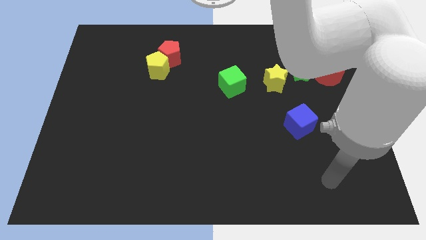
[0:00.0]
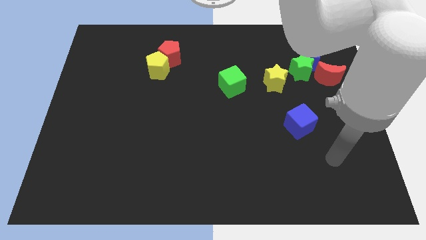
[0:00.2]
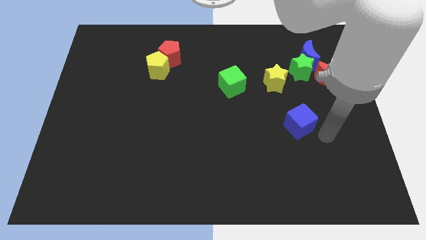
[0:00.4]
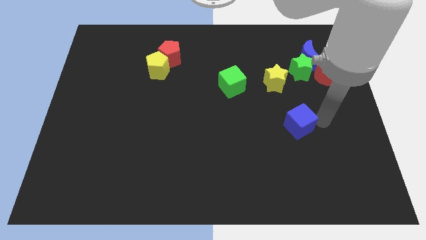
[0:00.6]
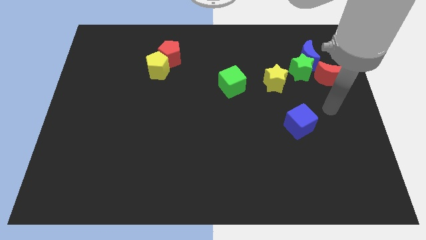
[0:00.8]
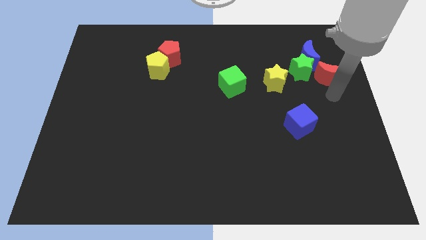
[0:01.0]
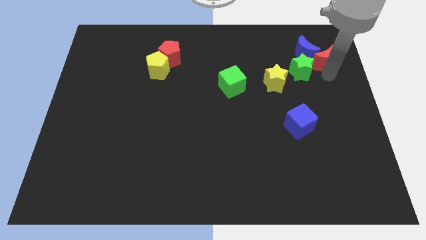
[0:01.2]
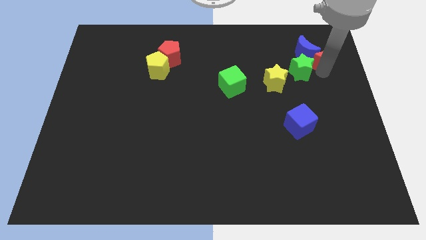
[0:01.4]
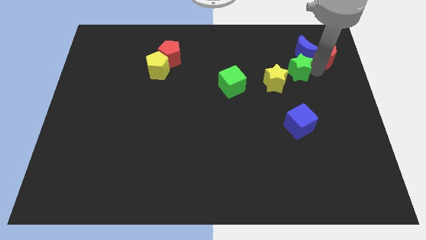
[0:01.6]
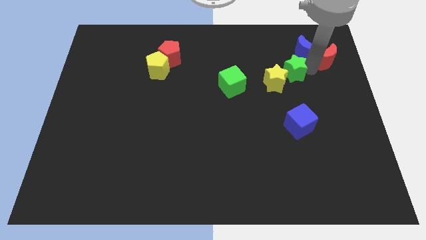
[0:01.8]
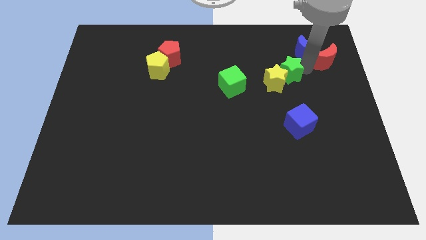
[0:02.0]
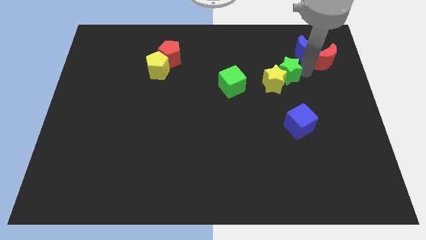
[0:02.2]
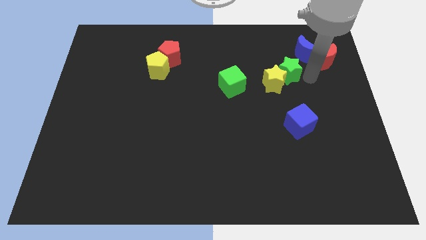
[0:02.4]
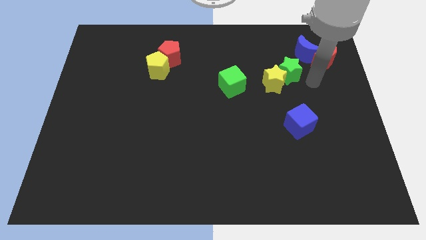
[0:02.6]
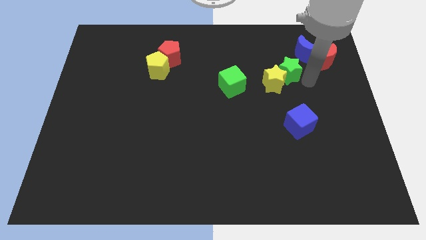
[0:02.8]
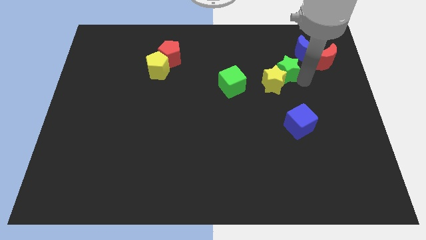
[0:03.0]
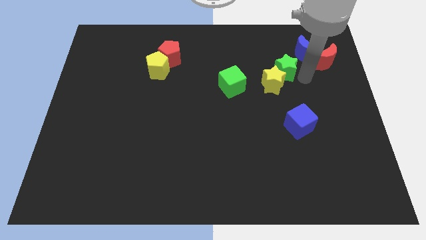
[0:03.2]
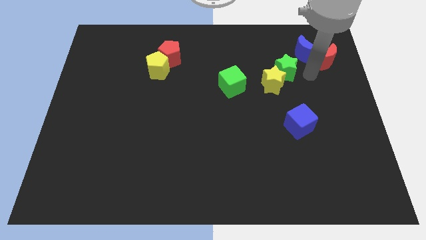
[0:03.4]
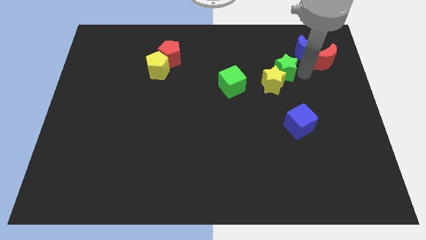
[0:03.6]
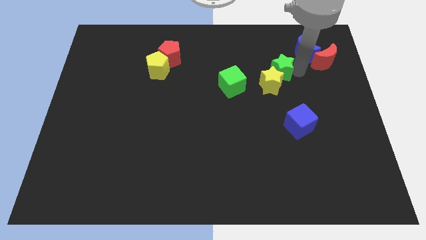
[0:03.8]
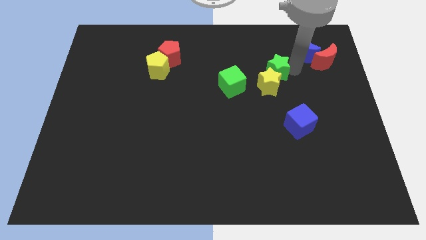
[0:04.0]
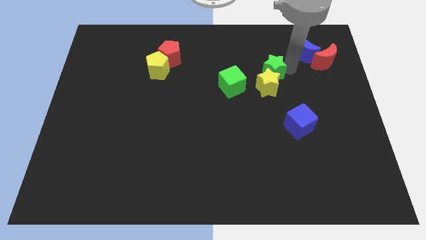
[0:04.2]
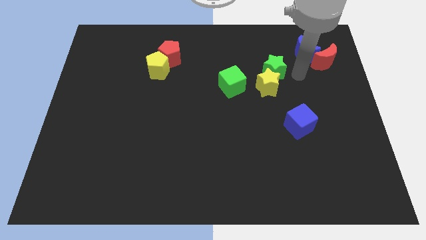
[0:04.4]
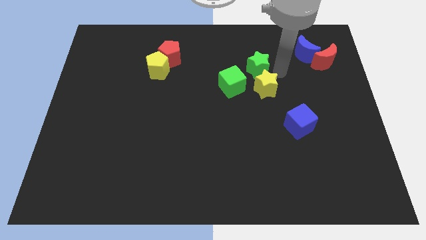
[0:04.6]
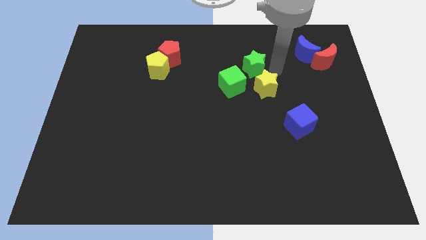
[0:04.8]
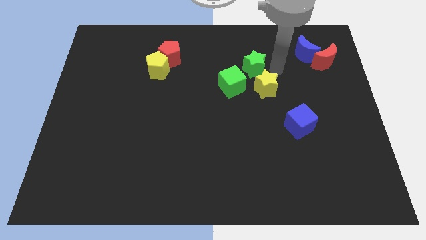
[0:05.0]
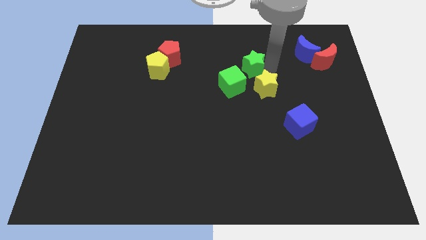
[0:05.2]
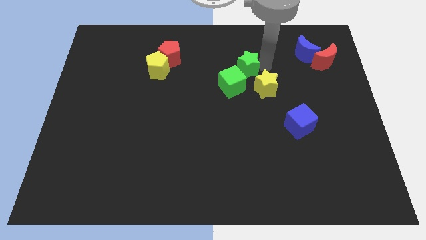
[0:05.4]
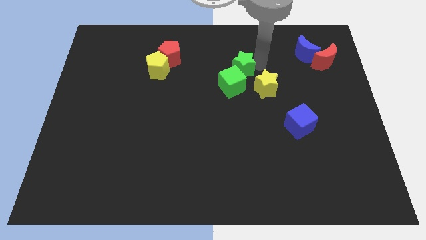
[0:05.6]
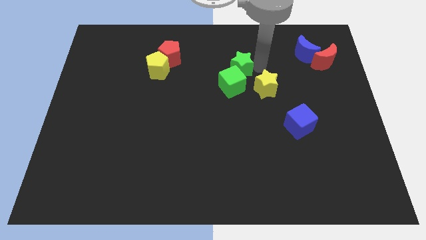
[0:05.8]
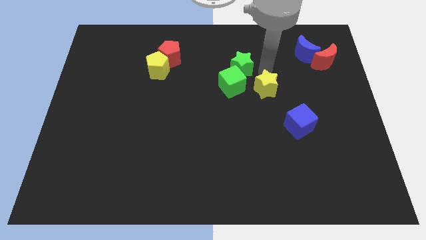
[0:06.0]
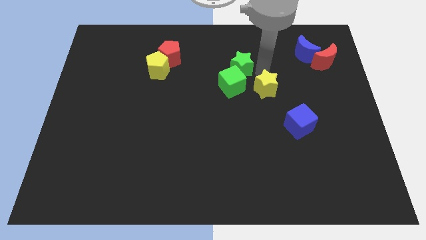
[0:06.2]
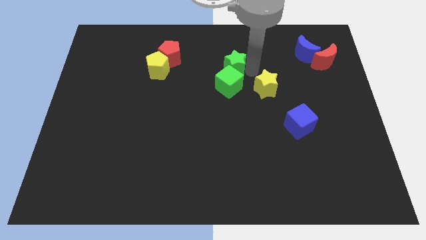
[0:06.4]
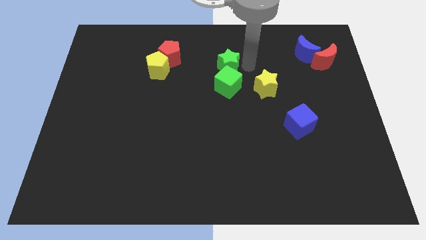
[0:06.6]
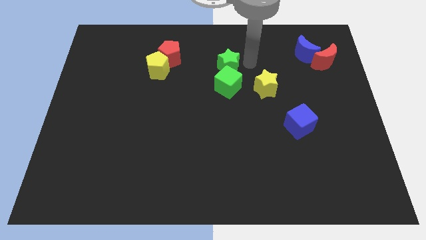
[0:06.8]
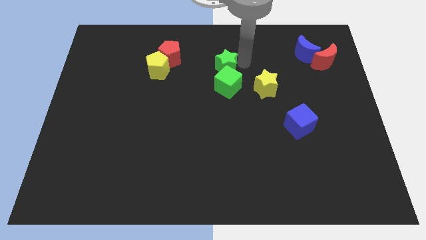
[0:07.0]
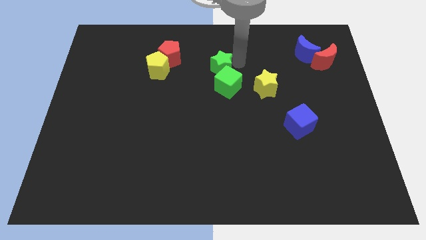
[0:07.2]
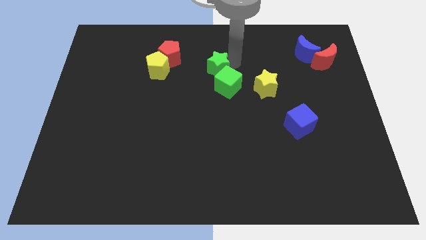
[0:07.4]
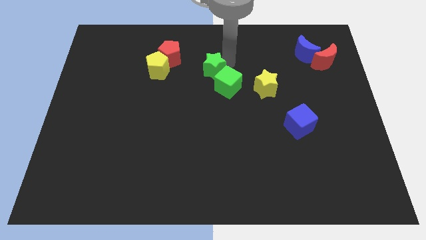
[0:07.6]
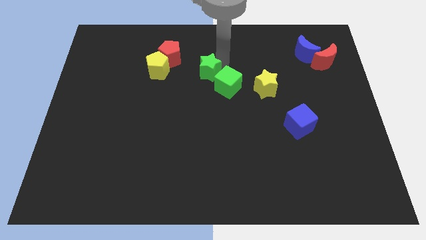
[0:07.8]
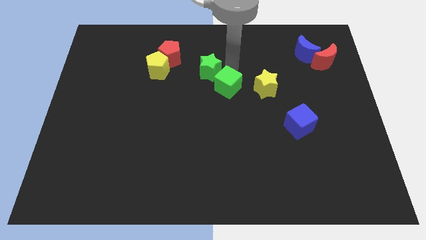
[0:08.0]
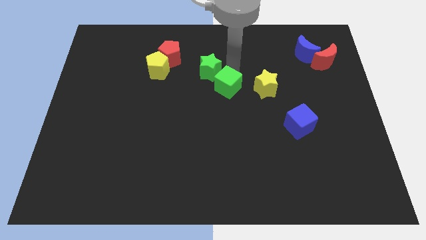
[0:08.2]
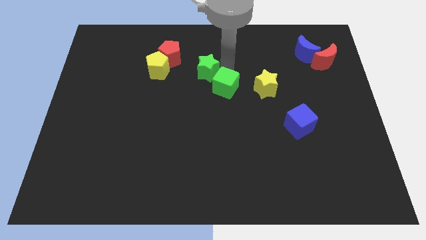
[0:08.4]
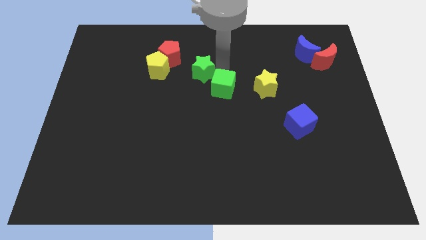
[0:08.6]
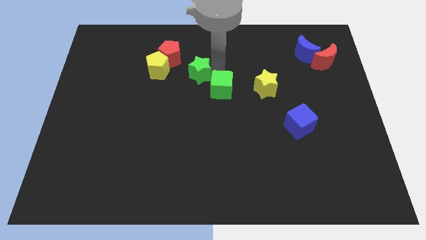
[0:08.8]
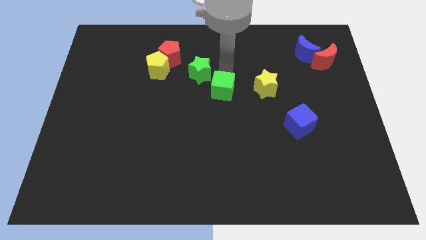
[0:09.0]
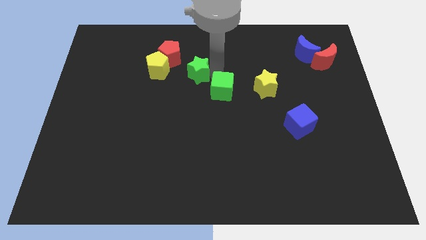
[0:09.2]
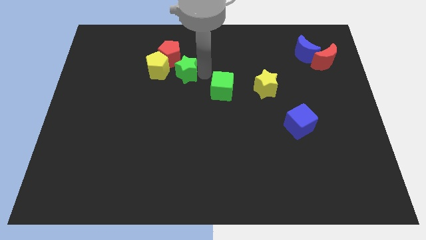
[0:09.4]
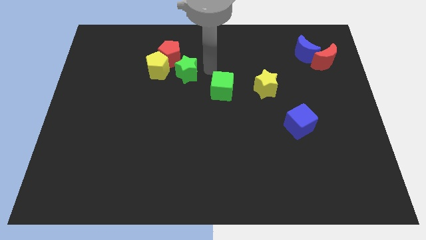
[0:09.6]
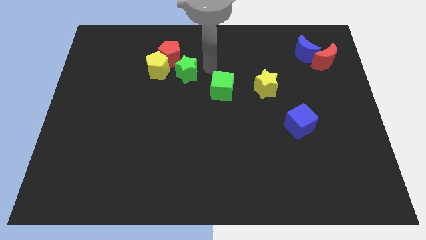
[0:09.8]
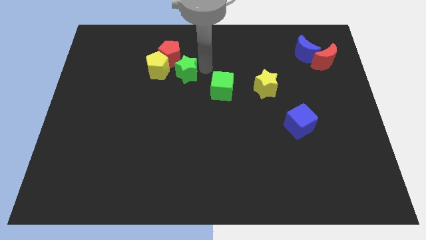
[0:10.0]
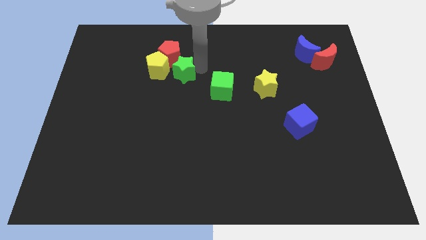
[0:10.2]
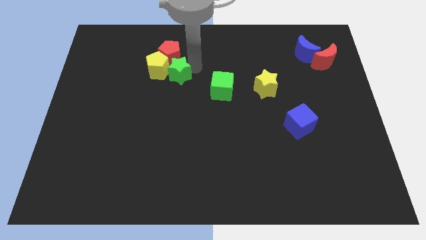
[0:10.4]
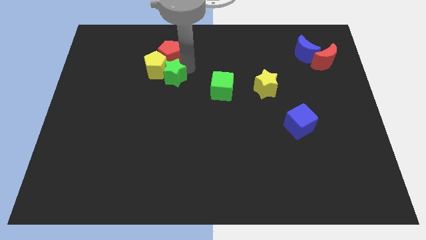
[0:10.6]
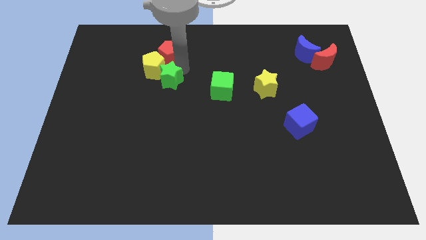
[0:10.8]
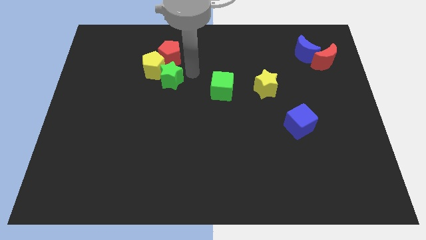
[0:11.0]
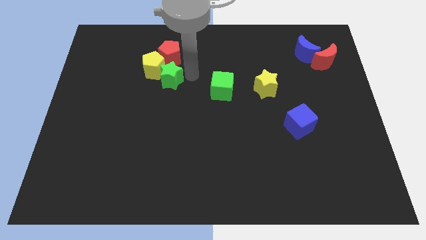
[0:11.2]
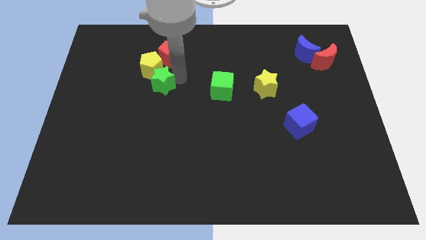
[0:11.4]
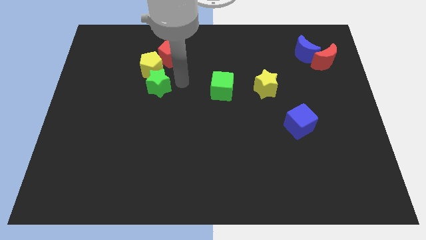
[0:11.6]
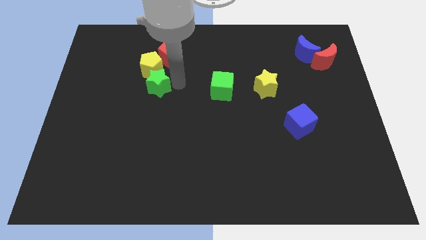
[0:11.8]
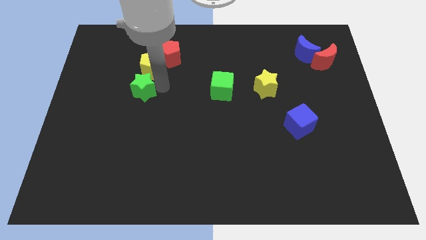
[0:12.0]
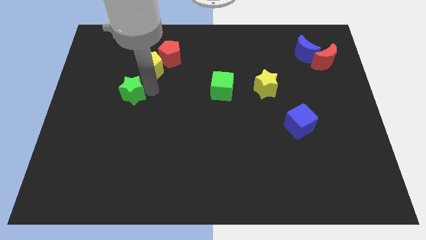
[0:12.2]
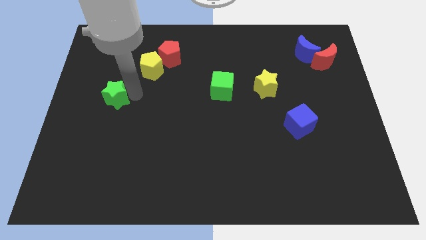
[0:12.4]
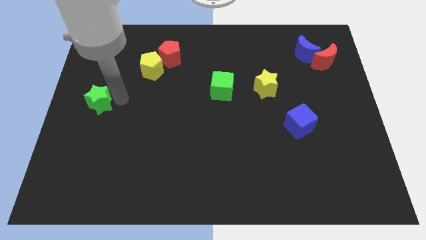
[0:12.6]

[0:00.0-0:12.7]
put the green star to the left side

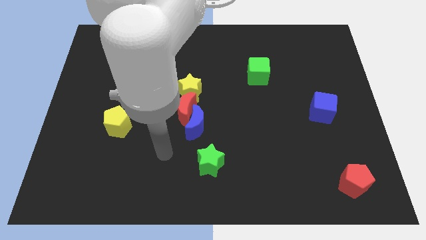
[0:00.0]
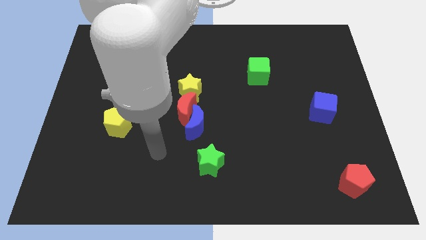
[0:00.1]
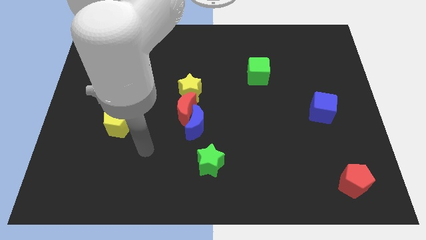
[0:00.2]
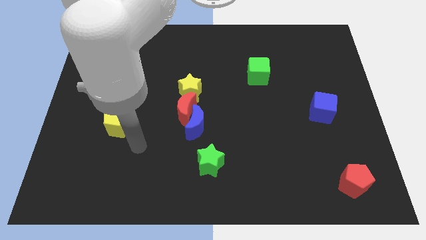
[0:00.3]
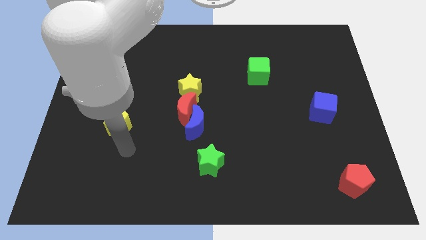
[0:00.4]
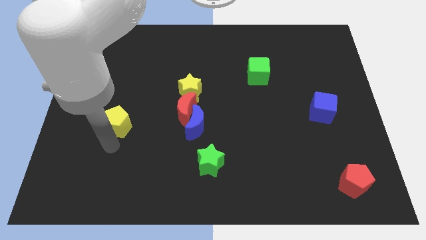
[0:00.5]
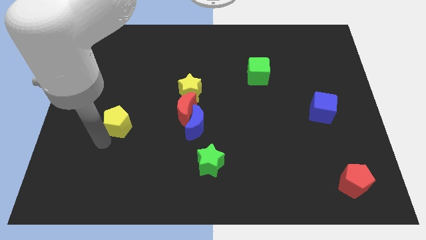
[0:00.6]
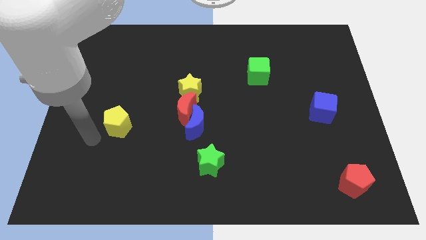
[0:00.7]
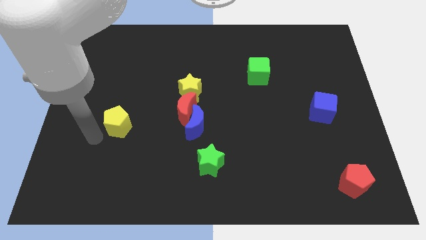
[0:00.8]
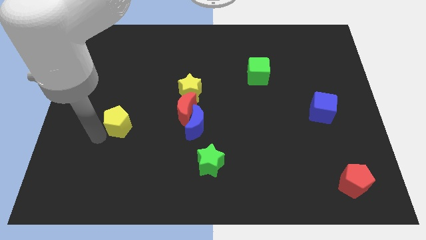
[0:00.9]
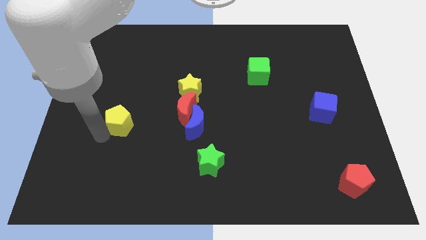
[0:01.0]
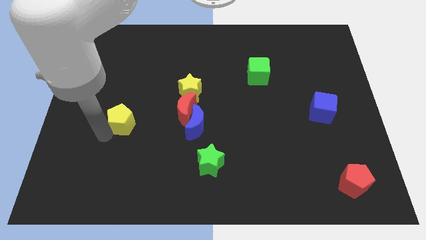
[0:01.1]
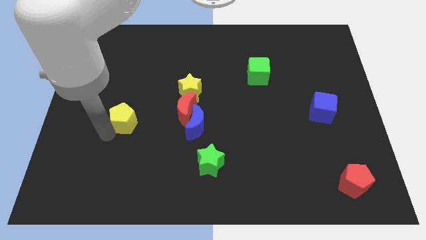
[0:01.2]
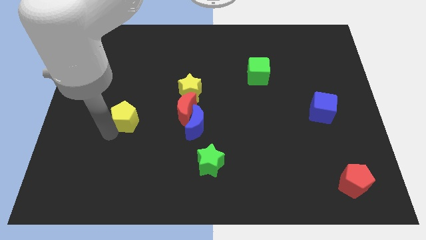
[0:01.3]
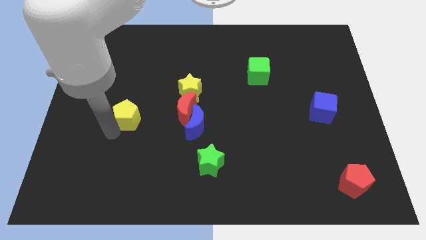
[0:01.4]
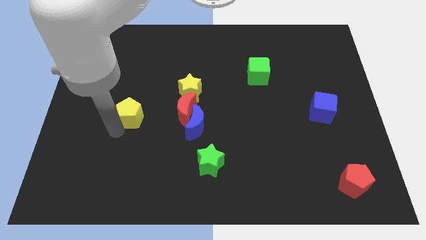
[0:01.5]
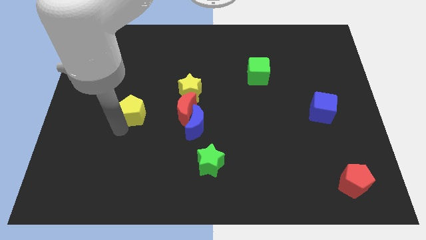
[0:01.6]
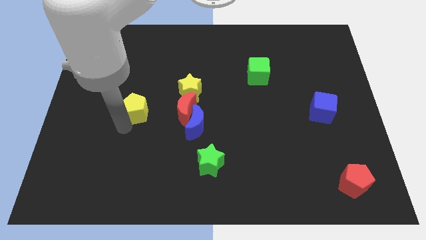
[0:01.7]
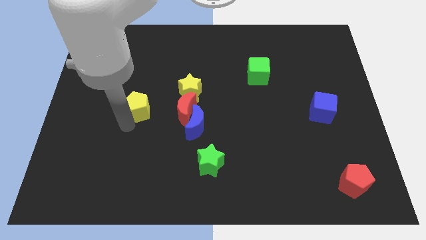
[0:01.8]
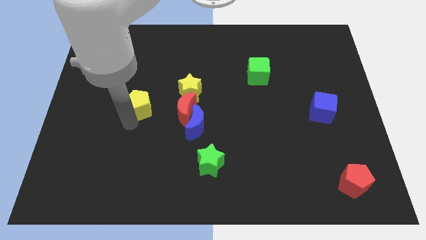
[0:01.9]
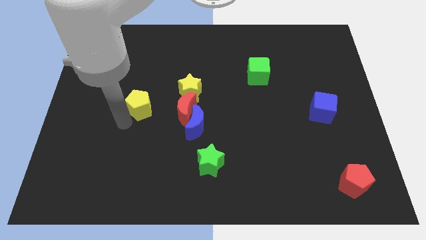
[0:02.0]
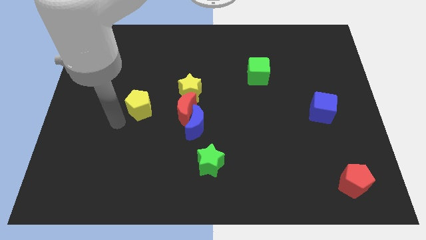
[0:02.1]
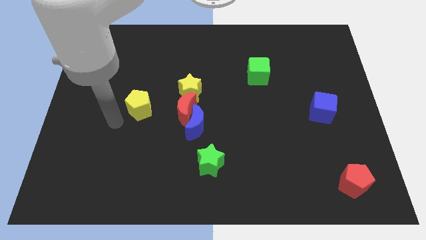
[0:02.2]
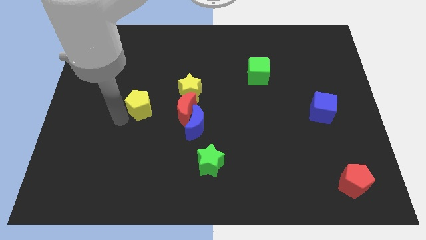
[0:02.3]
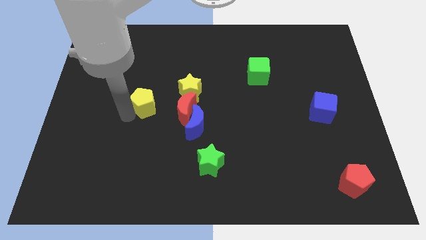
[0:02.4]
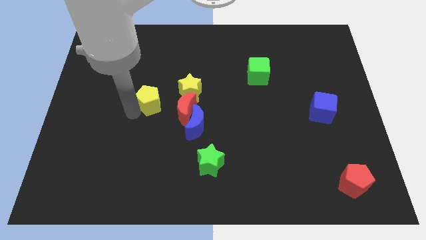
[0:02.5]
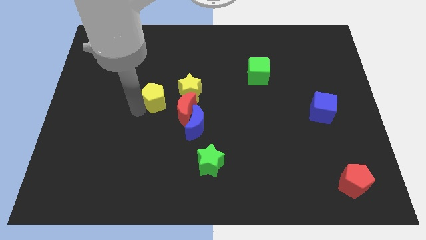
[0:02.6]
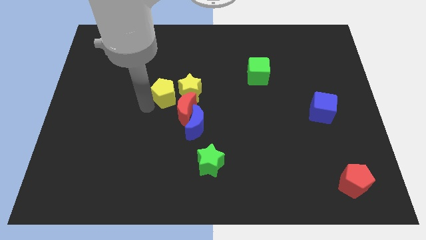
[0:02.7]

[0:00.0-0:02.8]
push the yellow pentagon to the center of the board
